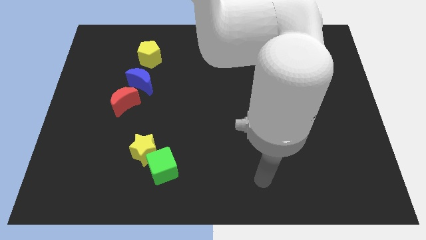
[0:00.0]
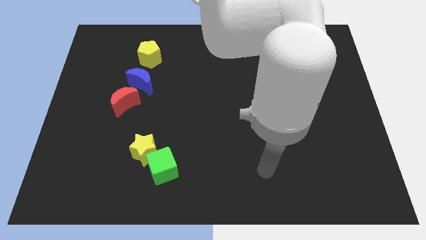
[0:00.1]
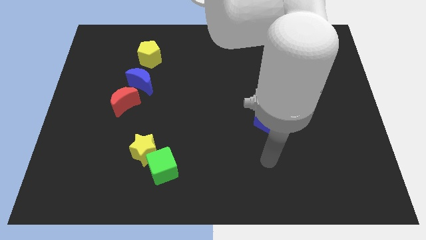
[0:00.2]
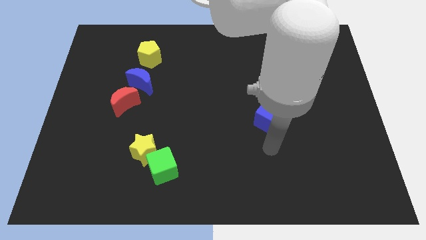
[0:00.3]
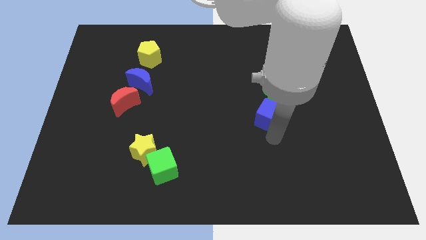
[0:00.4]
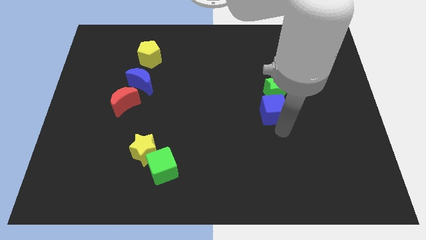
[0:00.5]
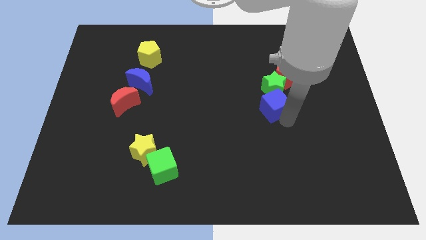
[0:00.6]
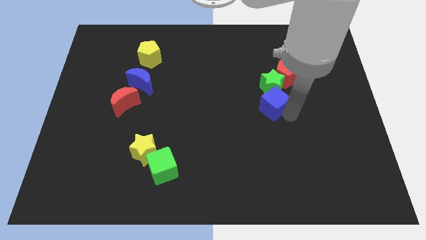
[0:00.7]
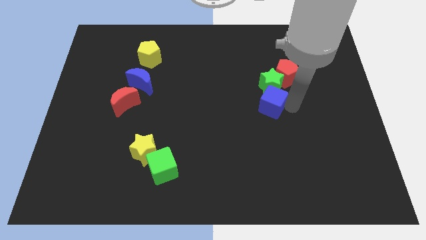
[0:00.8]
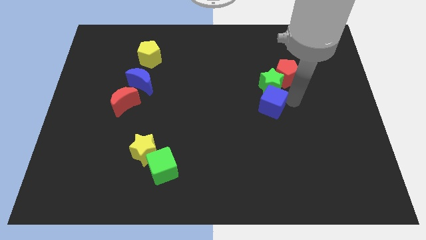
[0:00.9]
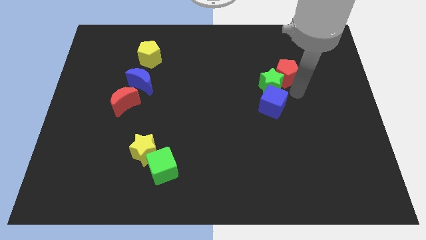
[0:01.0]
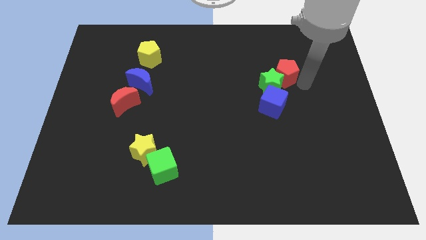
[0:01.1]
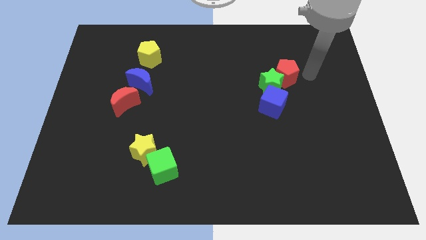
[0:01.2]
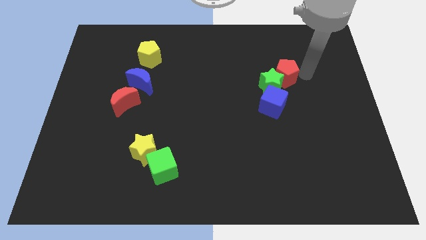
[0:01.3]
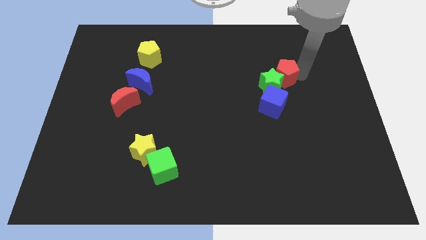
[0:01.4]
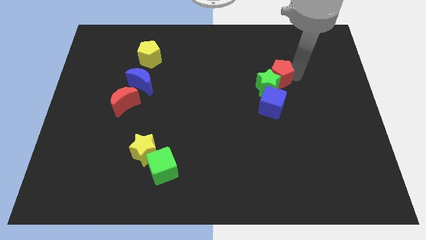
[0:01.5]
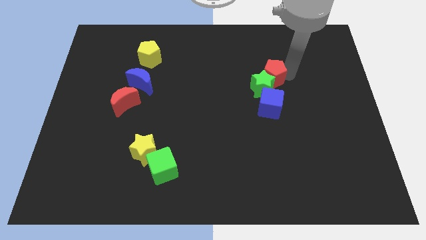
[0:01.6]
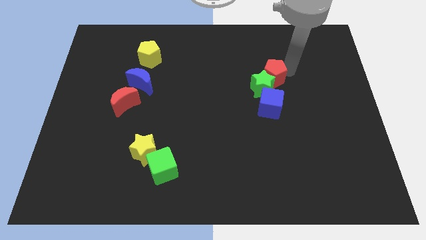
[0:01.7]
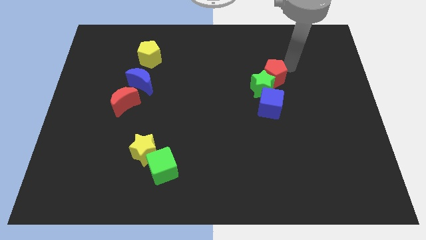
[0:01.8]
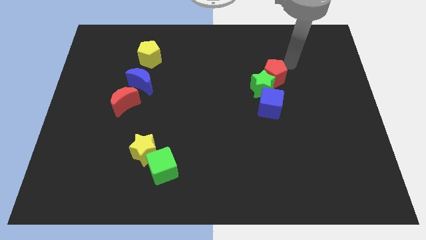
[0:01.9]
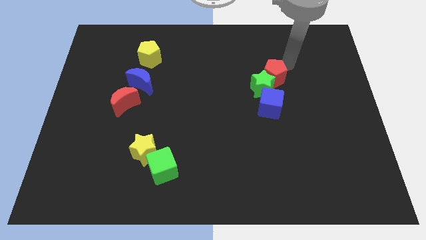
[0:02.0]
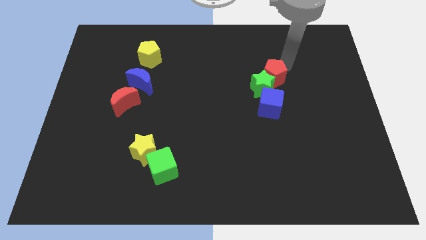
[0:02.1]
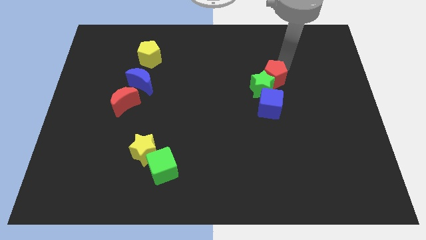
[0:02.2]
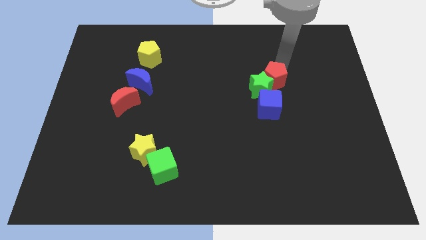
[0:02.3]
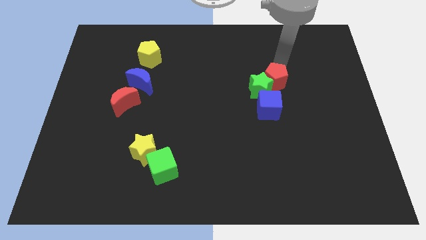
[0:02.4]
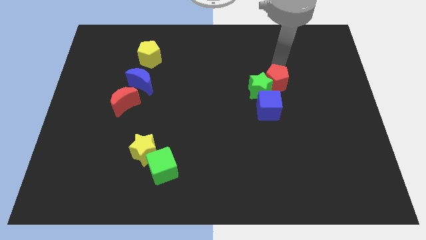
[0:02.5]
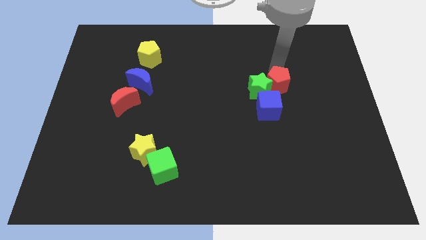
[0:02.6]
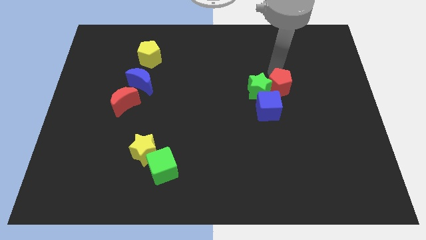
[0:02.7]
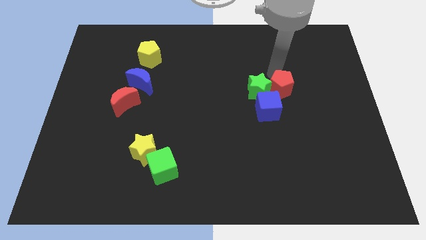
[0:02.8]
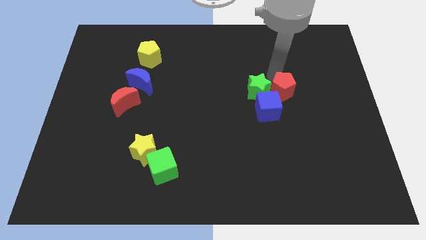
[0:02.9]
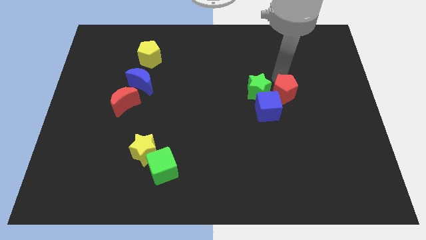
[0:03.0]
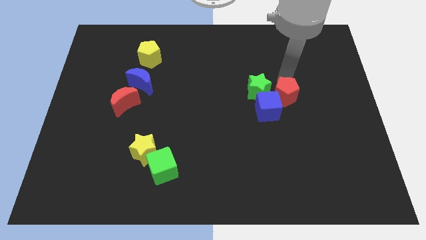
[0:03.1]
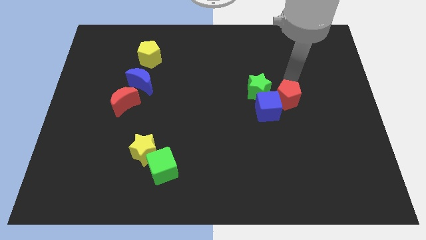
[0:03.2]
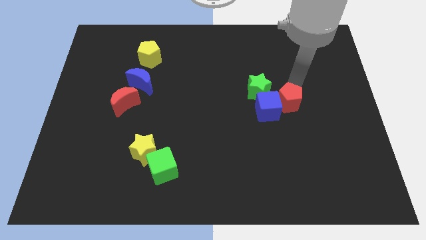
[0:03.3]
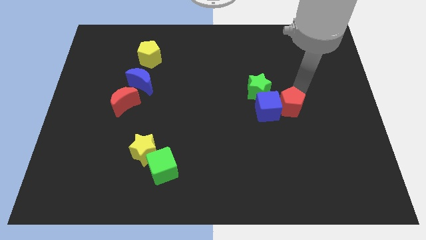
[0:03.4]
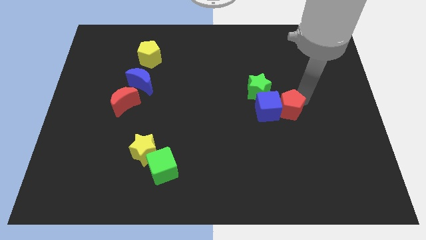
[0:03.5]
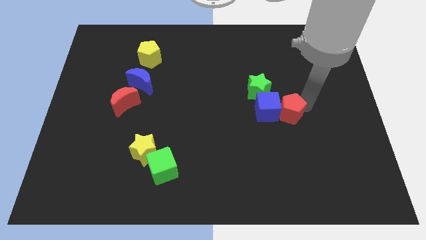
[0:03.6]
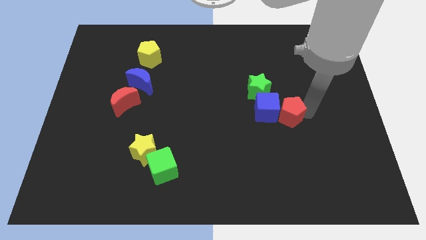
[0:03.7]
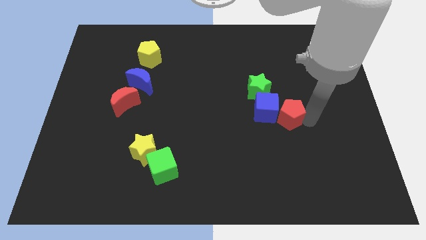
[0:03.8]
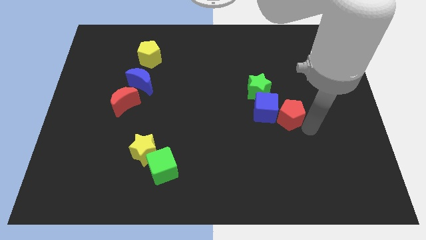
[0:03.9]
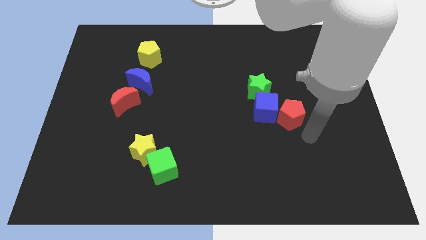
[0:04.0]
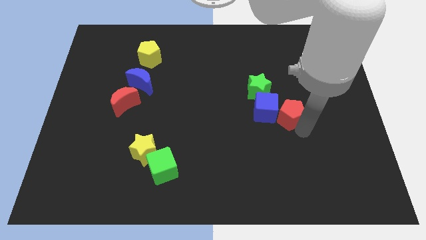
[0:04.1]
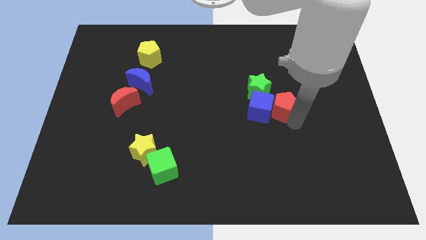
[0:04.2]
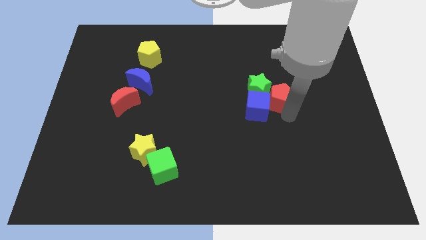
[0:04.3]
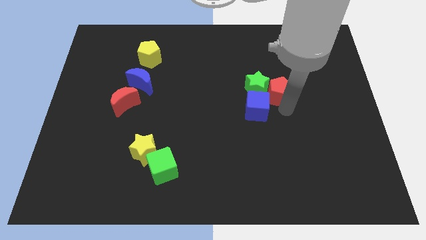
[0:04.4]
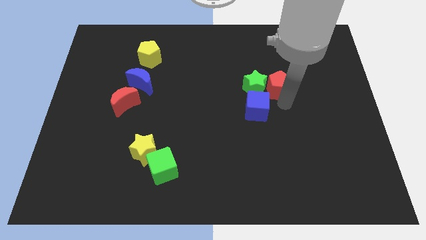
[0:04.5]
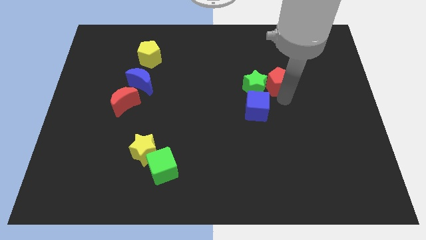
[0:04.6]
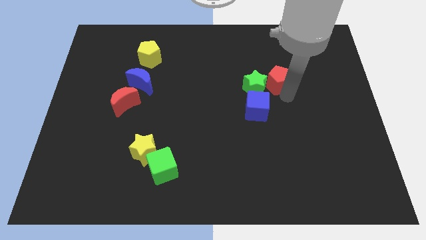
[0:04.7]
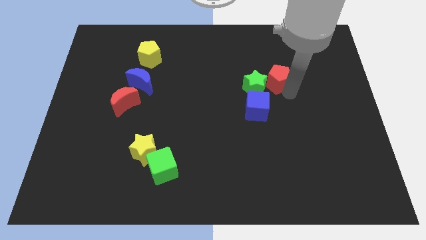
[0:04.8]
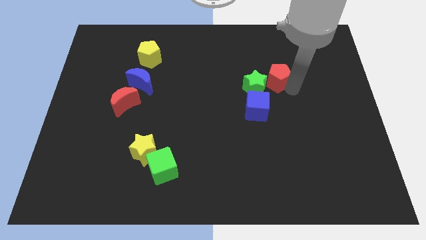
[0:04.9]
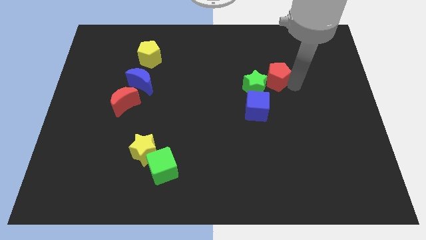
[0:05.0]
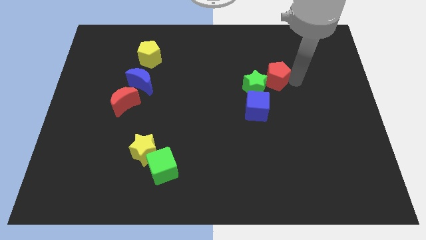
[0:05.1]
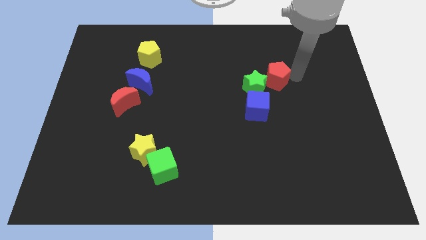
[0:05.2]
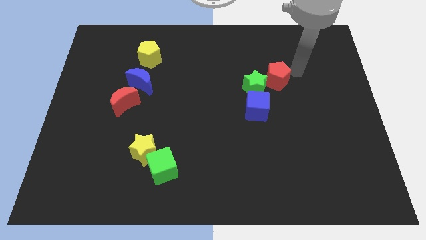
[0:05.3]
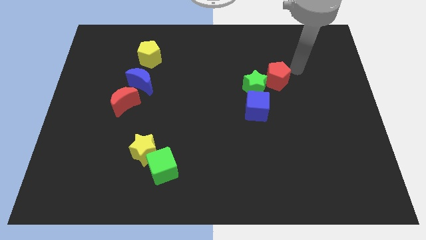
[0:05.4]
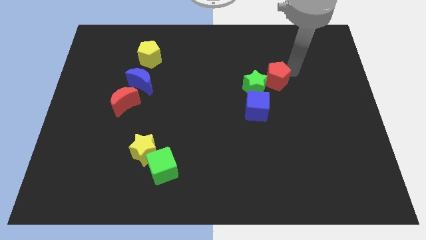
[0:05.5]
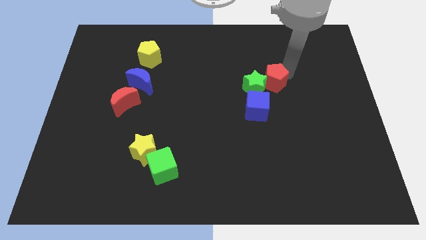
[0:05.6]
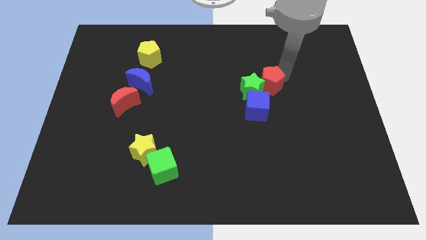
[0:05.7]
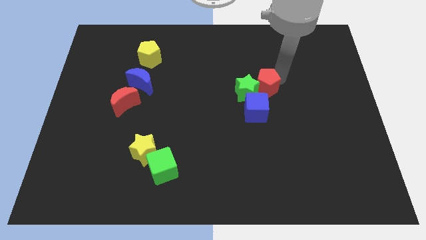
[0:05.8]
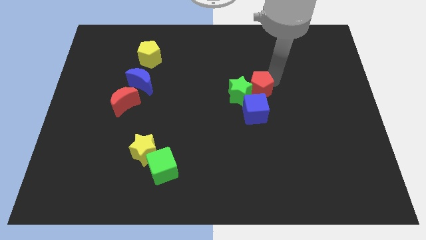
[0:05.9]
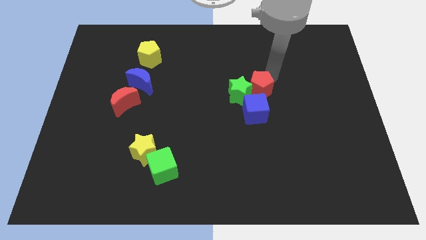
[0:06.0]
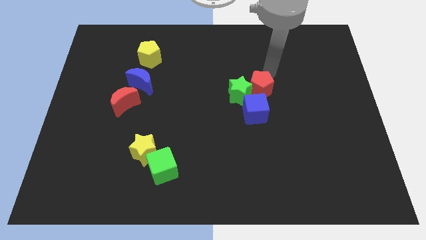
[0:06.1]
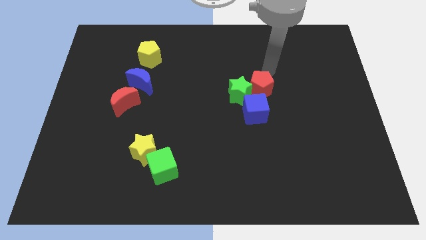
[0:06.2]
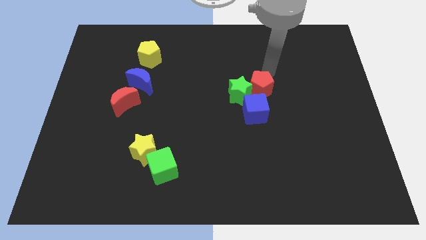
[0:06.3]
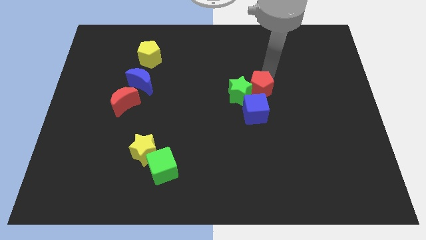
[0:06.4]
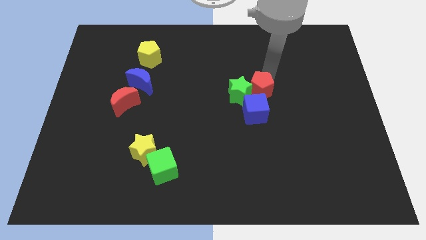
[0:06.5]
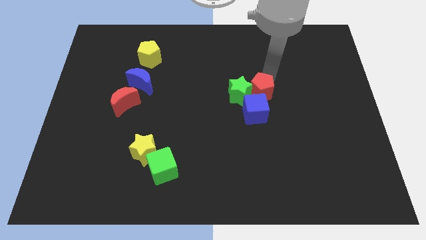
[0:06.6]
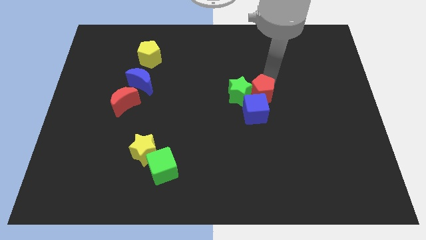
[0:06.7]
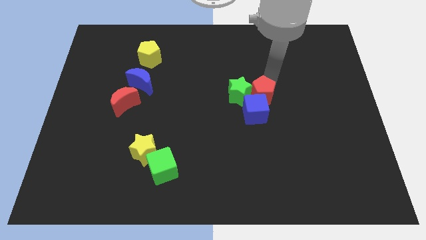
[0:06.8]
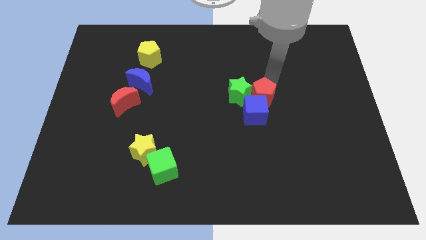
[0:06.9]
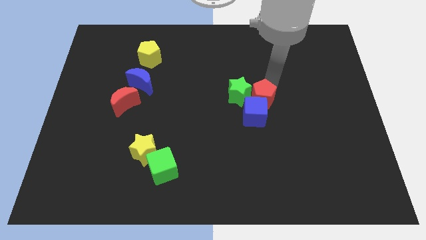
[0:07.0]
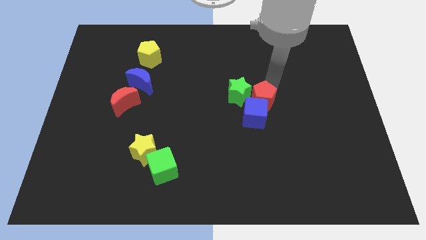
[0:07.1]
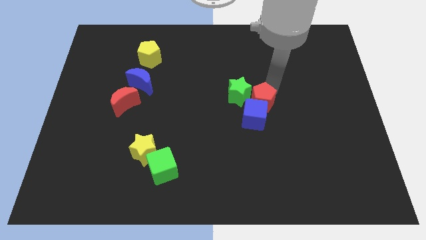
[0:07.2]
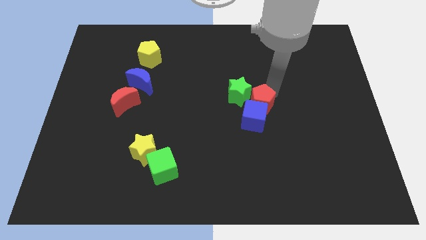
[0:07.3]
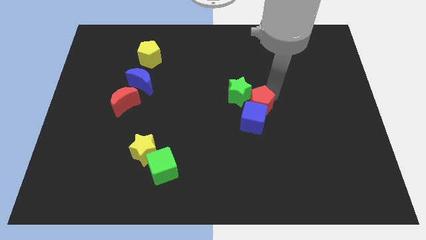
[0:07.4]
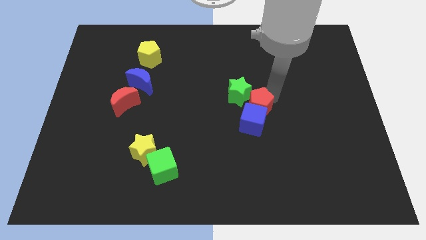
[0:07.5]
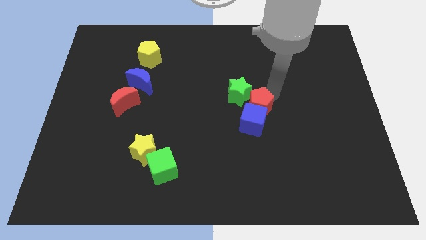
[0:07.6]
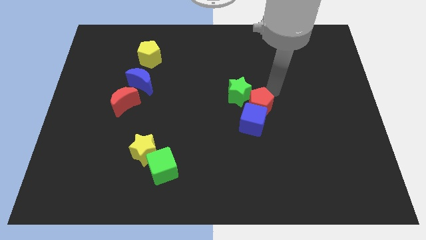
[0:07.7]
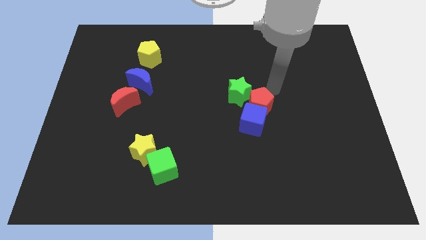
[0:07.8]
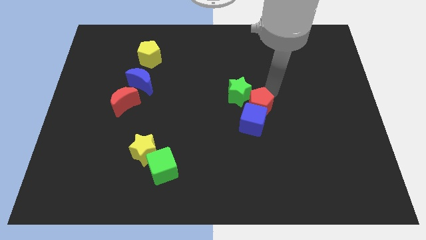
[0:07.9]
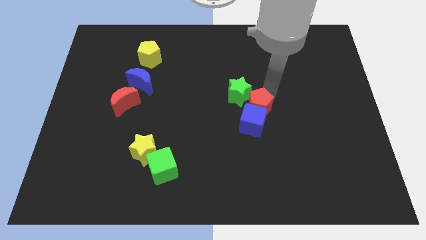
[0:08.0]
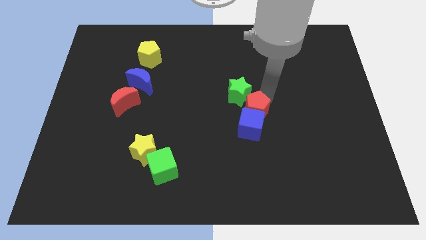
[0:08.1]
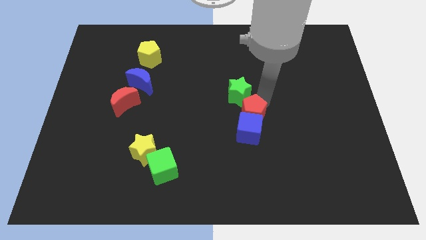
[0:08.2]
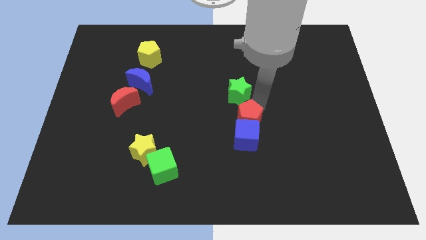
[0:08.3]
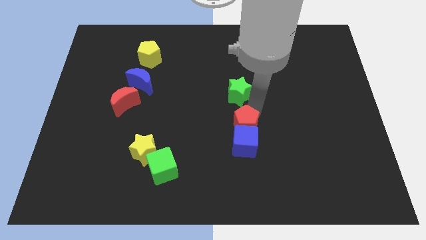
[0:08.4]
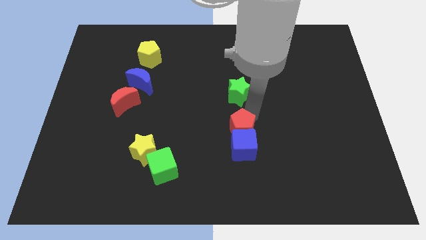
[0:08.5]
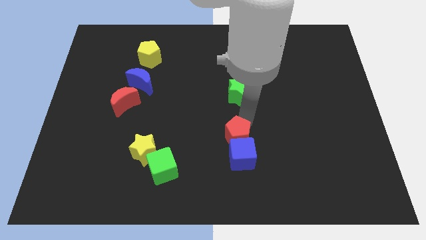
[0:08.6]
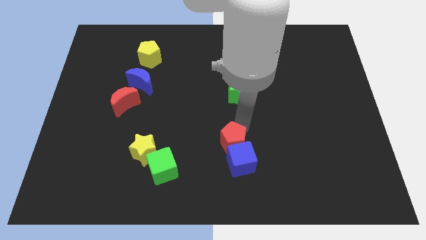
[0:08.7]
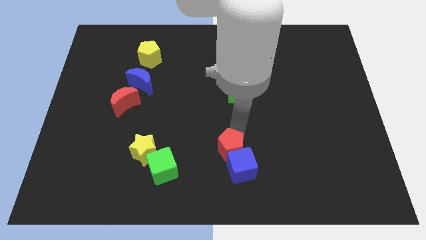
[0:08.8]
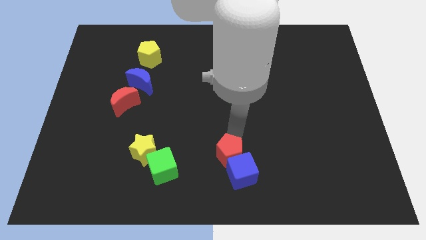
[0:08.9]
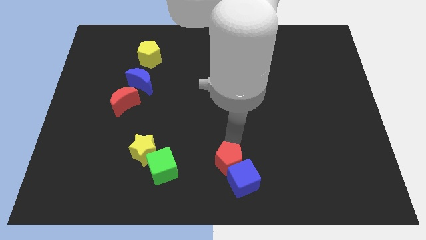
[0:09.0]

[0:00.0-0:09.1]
move the red pentagon to the bottom side
